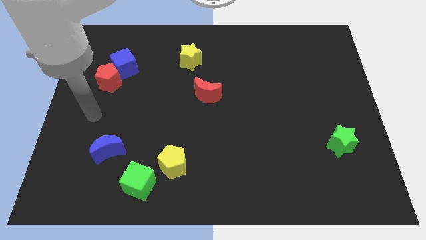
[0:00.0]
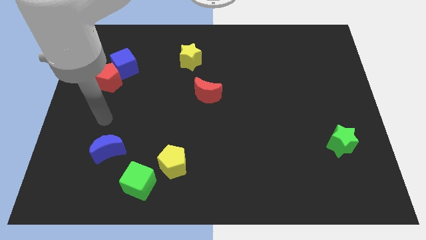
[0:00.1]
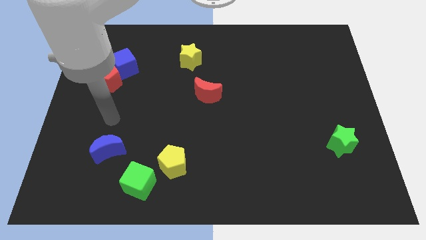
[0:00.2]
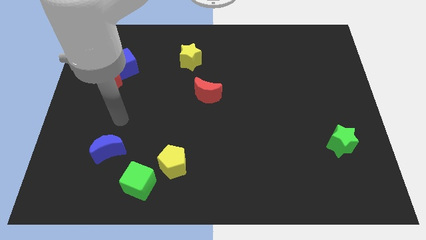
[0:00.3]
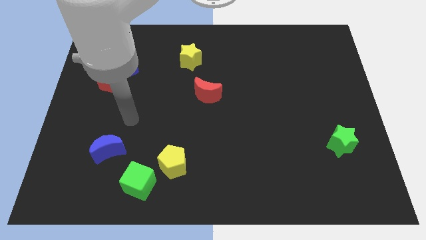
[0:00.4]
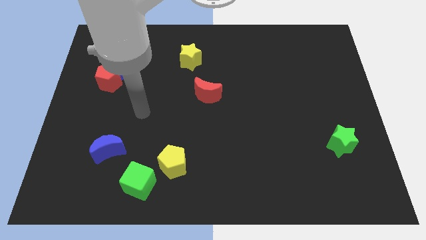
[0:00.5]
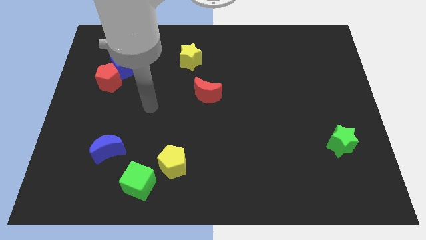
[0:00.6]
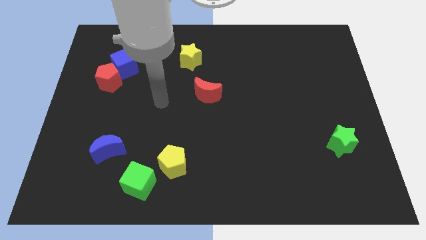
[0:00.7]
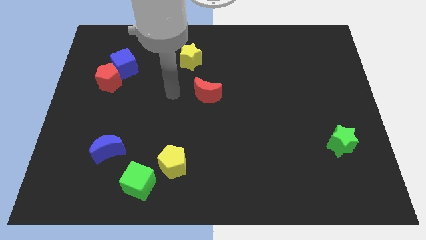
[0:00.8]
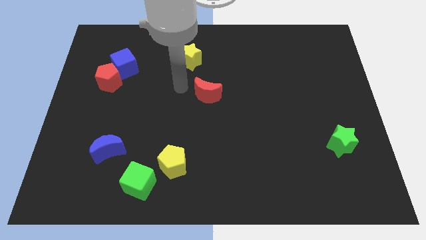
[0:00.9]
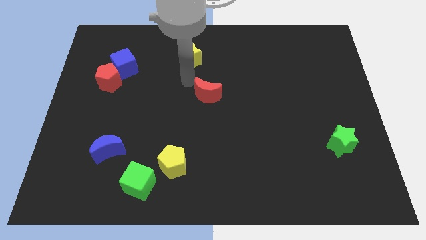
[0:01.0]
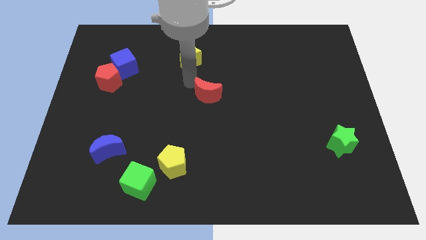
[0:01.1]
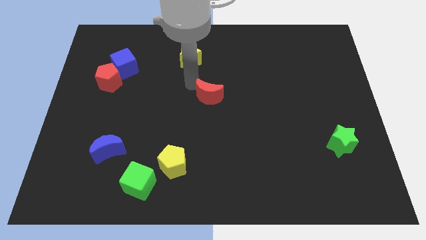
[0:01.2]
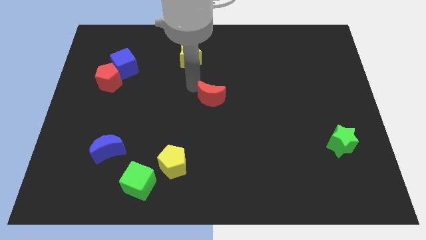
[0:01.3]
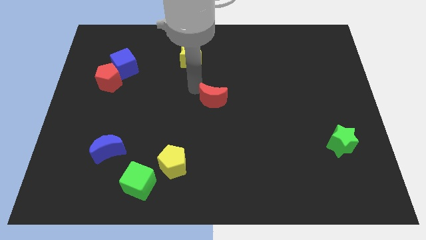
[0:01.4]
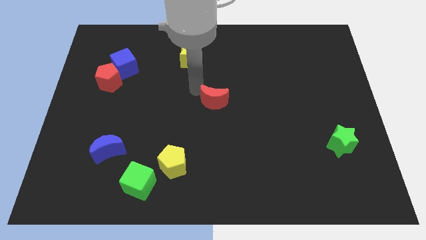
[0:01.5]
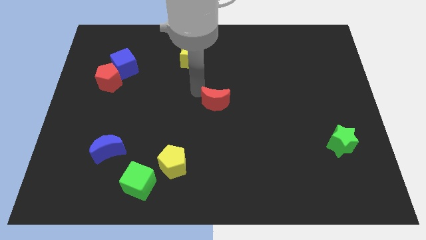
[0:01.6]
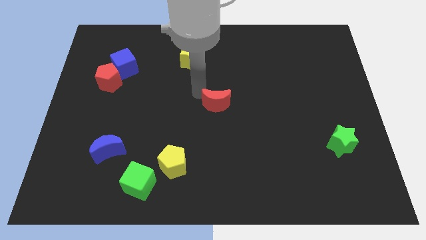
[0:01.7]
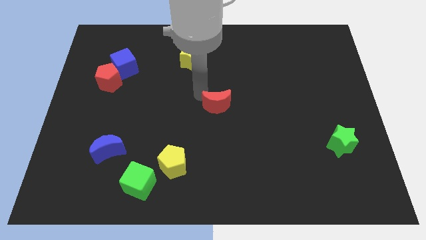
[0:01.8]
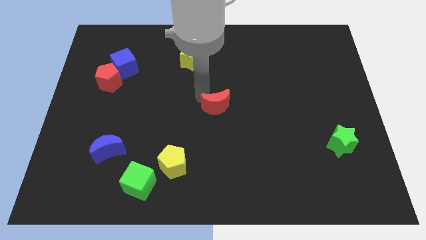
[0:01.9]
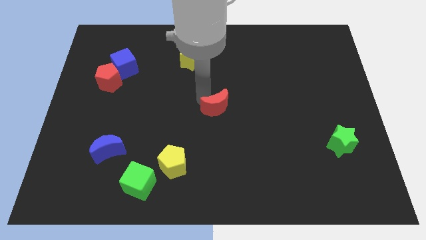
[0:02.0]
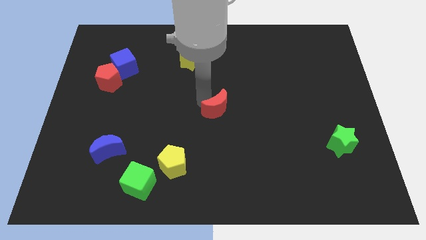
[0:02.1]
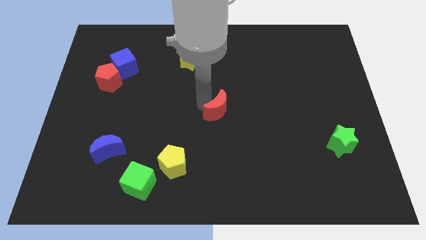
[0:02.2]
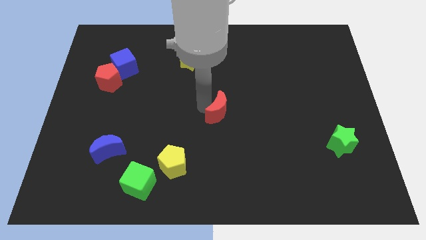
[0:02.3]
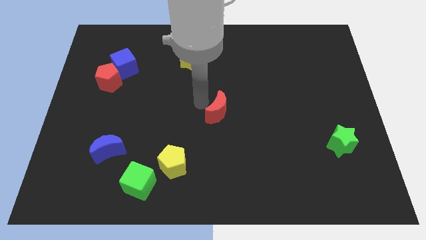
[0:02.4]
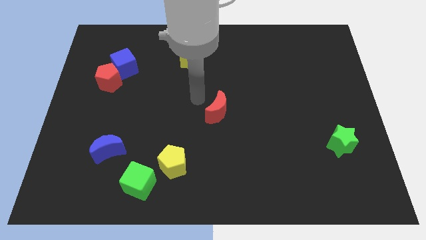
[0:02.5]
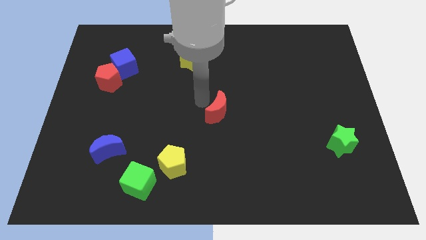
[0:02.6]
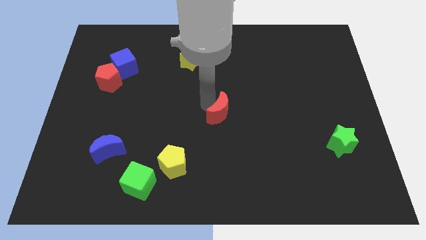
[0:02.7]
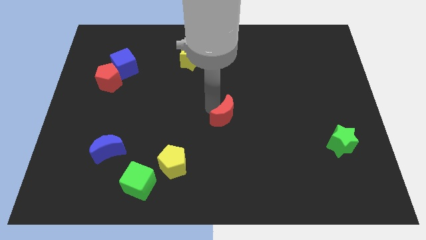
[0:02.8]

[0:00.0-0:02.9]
move the red moon down and then right a little bit

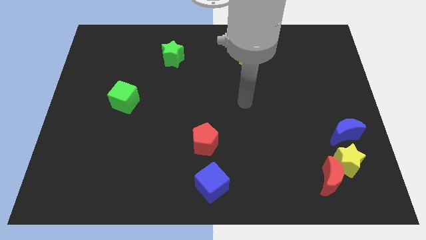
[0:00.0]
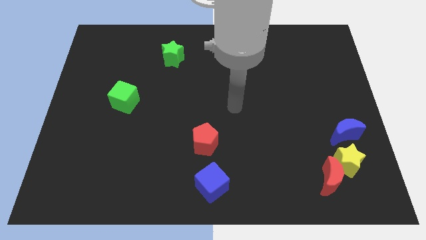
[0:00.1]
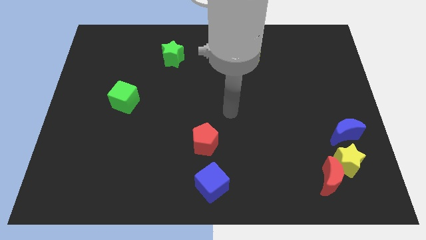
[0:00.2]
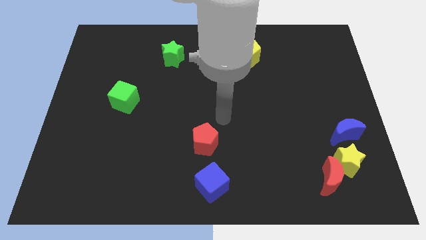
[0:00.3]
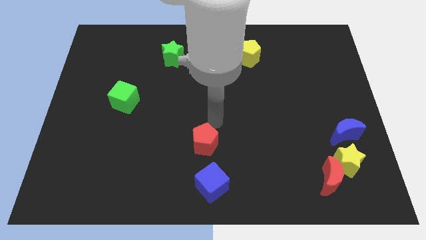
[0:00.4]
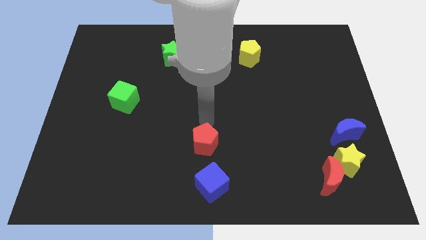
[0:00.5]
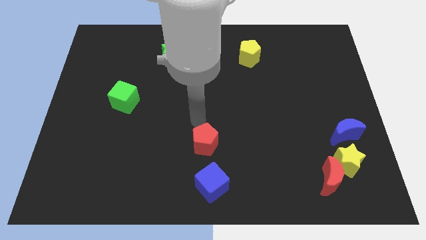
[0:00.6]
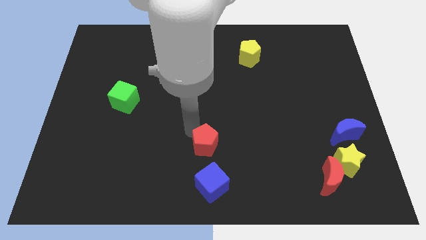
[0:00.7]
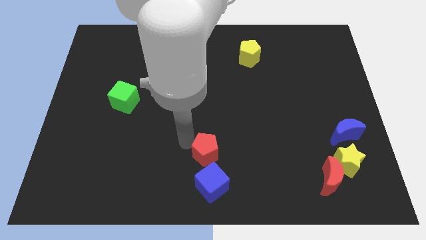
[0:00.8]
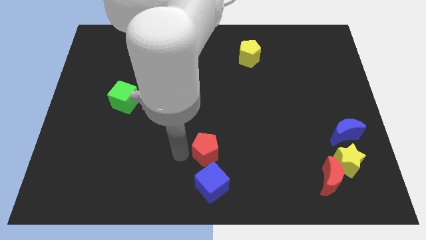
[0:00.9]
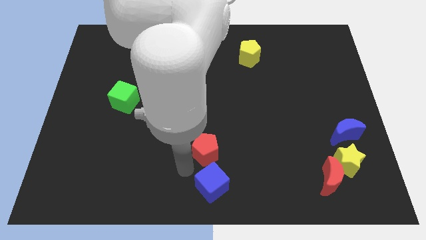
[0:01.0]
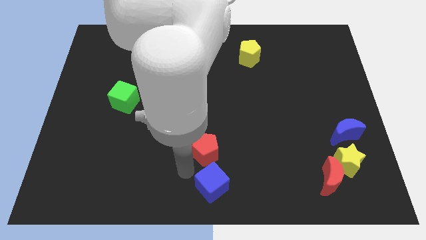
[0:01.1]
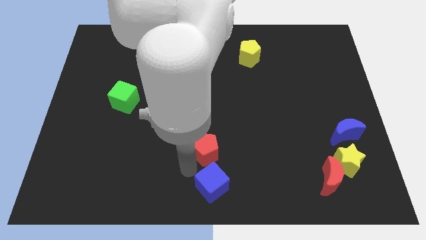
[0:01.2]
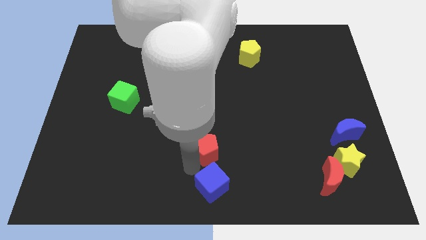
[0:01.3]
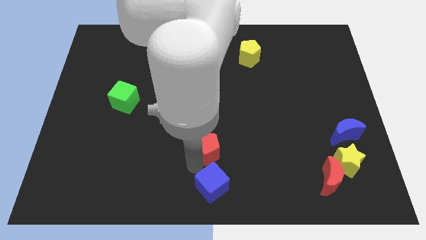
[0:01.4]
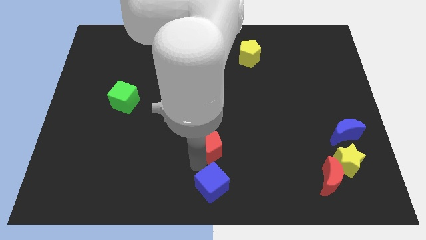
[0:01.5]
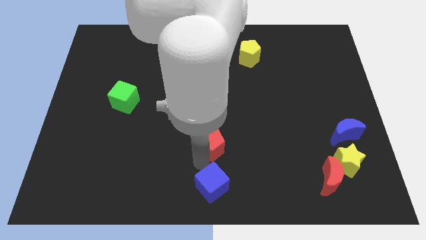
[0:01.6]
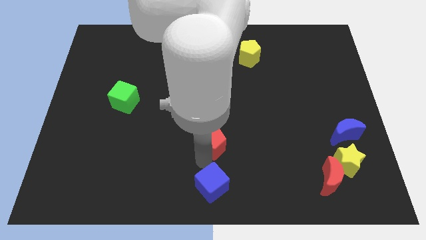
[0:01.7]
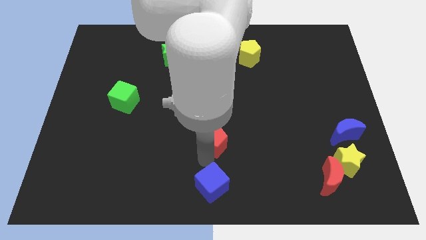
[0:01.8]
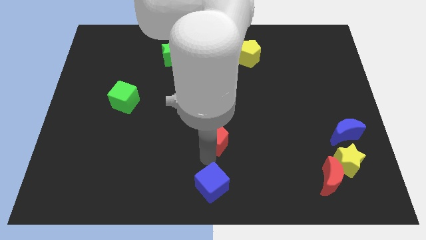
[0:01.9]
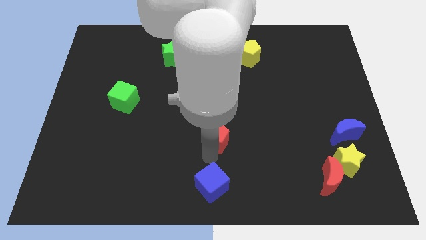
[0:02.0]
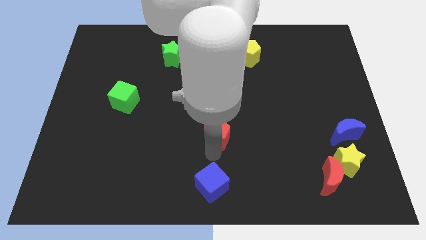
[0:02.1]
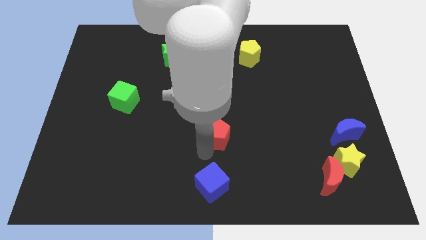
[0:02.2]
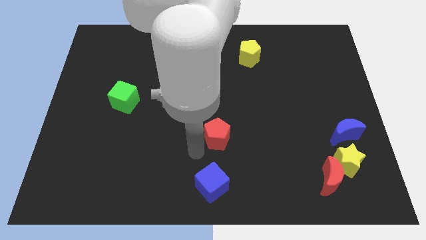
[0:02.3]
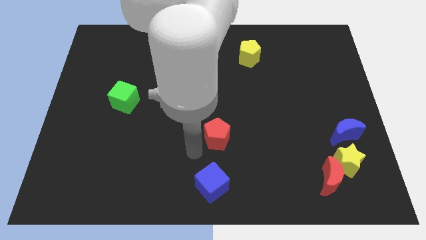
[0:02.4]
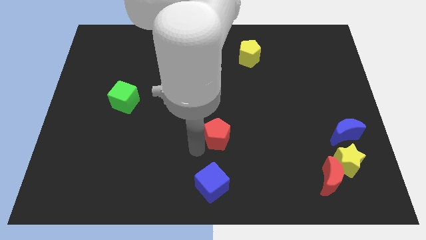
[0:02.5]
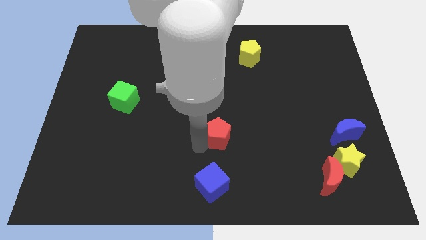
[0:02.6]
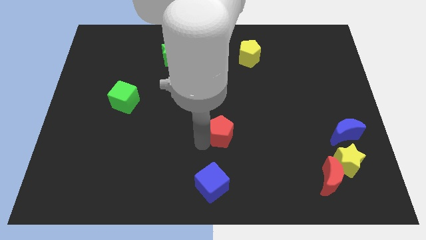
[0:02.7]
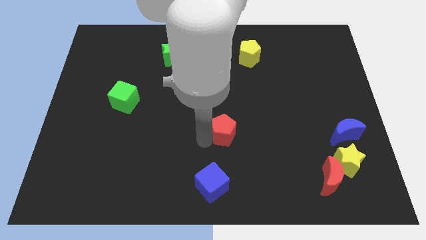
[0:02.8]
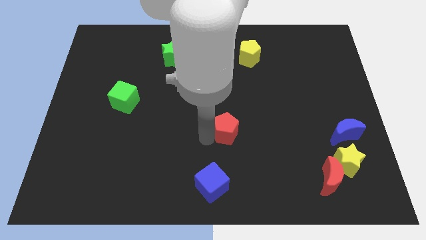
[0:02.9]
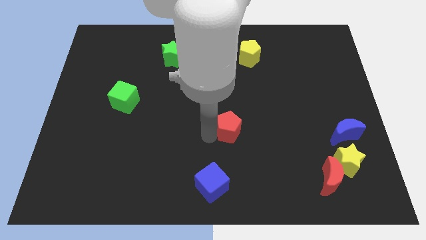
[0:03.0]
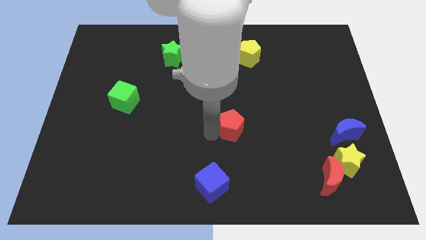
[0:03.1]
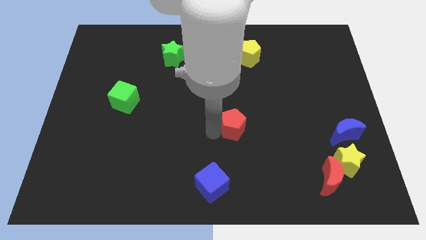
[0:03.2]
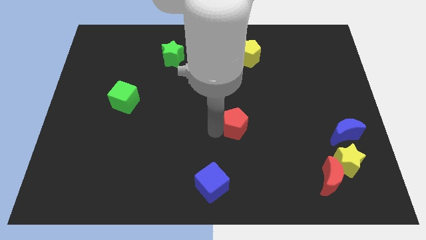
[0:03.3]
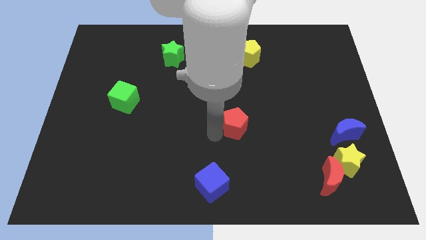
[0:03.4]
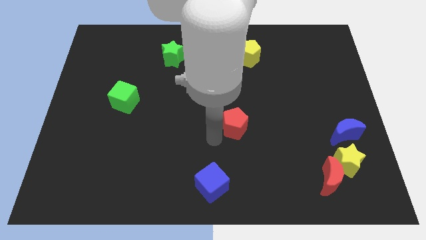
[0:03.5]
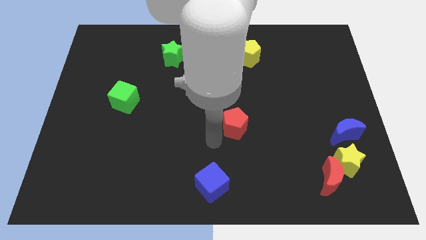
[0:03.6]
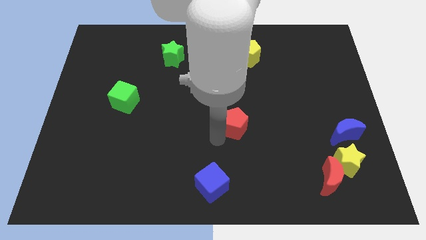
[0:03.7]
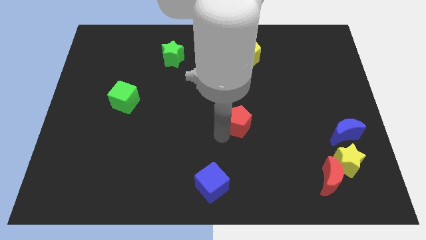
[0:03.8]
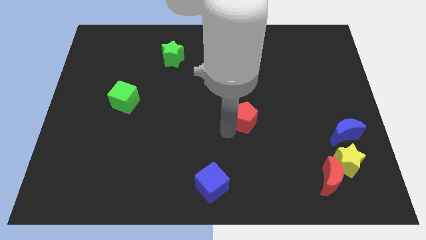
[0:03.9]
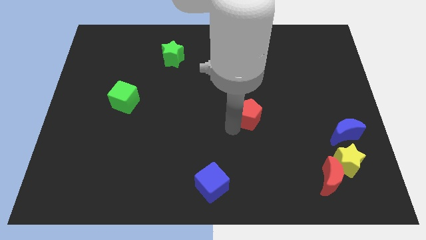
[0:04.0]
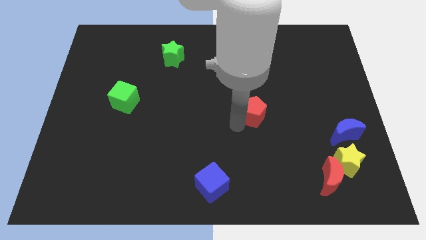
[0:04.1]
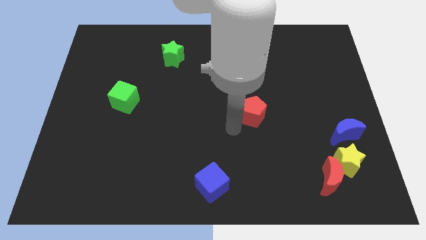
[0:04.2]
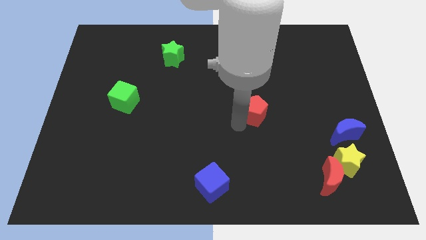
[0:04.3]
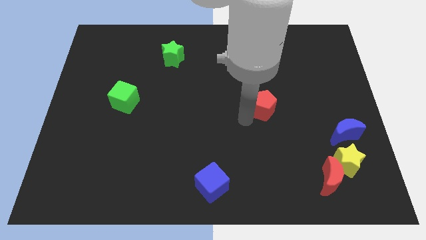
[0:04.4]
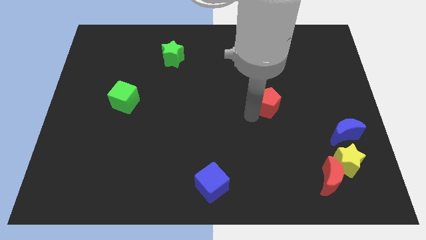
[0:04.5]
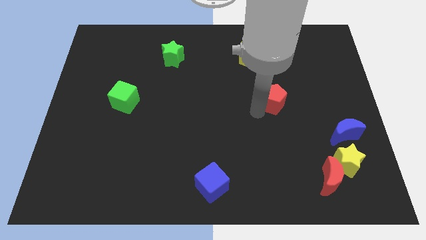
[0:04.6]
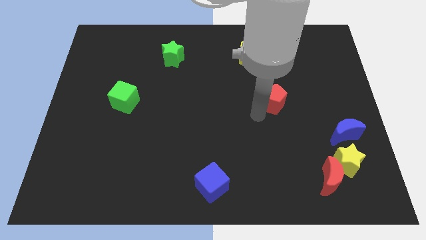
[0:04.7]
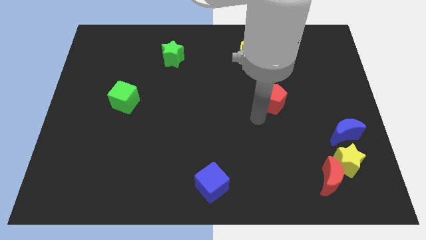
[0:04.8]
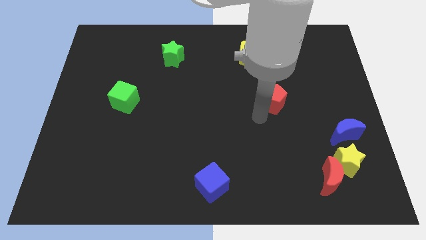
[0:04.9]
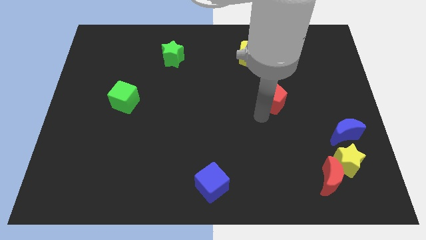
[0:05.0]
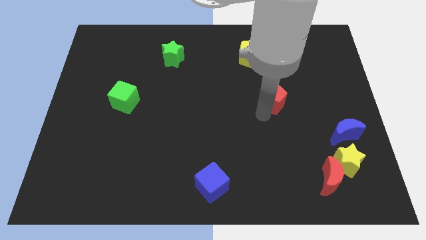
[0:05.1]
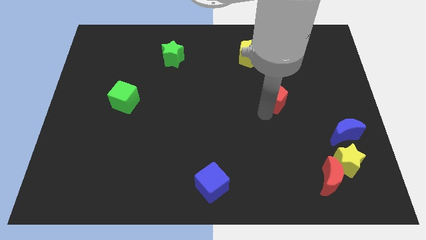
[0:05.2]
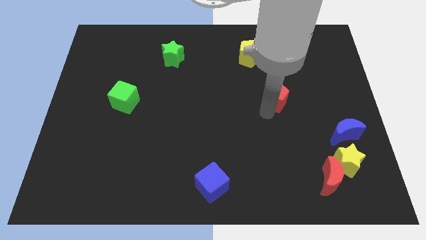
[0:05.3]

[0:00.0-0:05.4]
push the red pentagon up and then right
